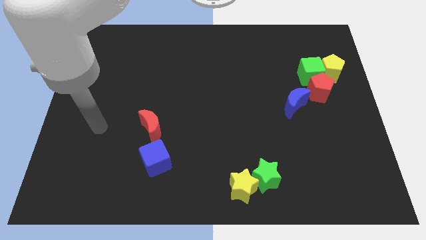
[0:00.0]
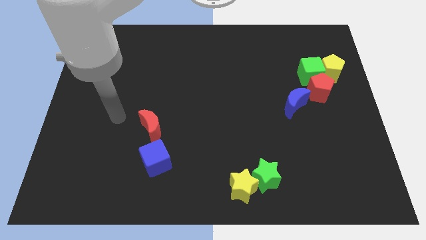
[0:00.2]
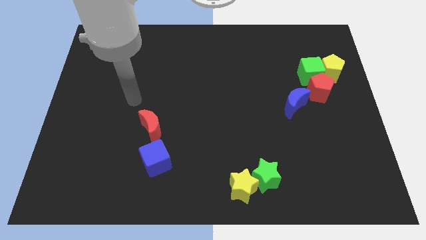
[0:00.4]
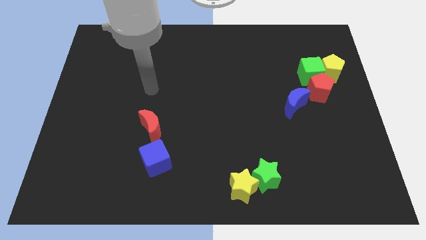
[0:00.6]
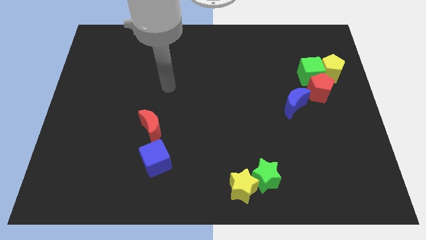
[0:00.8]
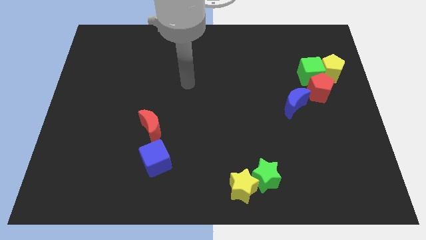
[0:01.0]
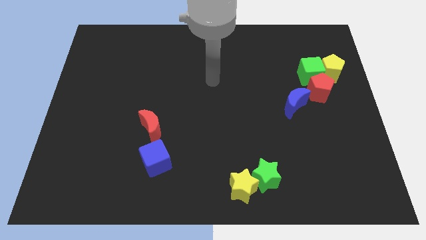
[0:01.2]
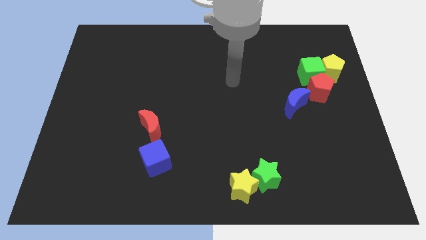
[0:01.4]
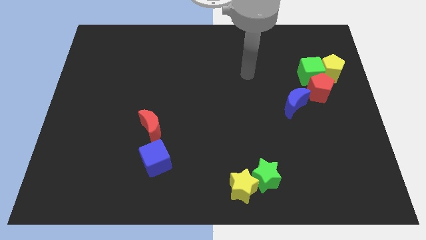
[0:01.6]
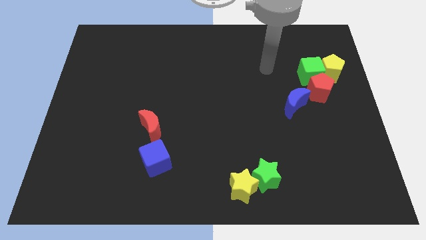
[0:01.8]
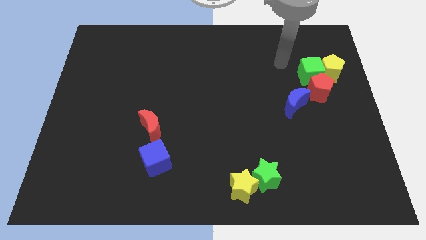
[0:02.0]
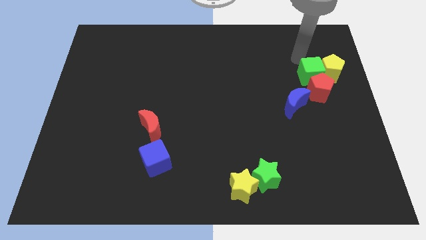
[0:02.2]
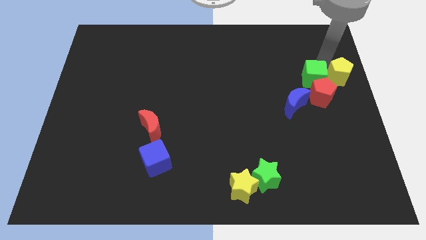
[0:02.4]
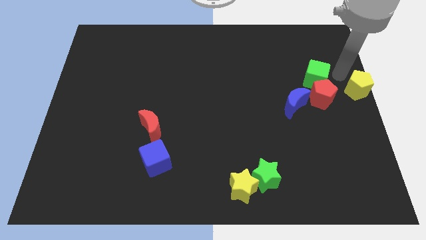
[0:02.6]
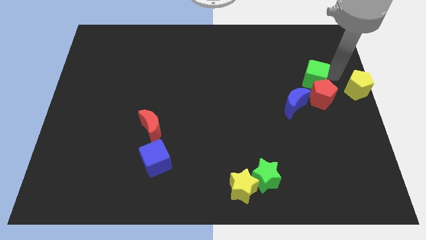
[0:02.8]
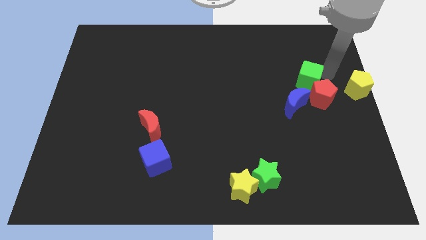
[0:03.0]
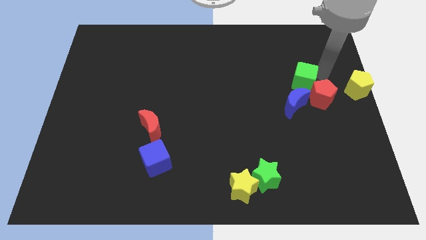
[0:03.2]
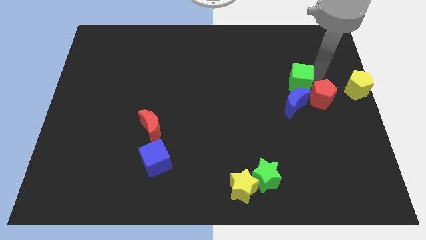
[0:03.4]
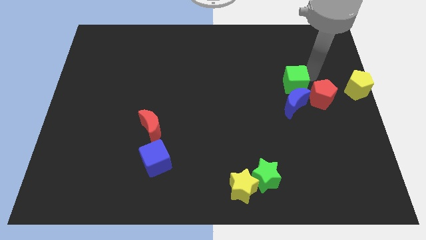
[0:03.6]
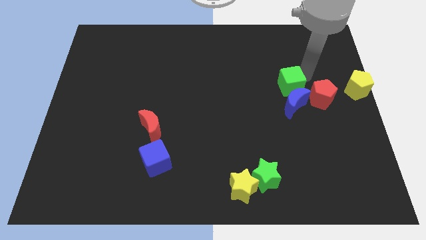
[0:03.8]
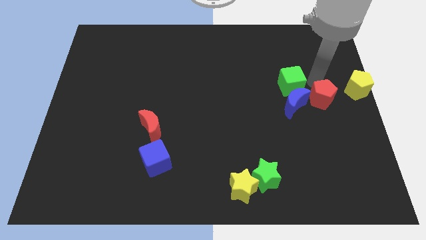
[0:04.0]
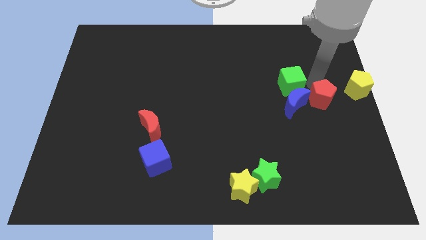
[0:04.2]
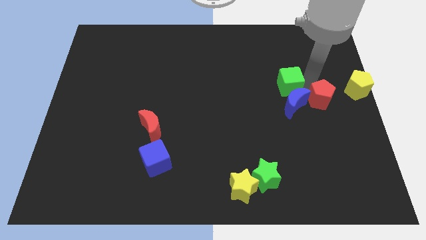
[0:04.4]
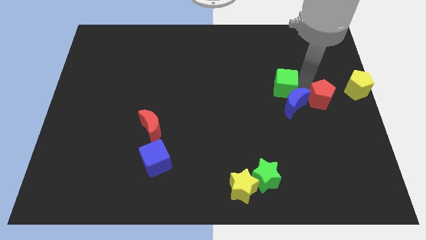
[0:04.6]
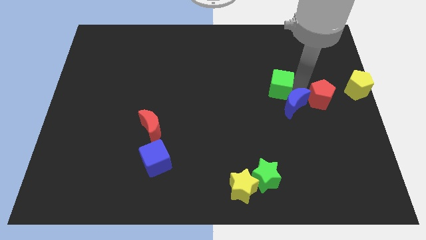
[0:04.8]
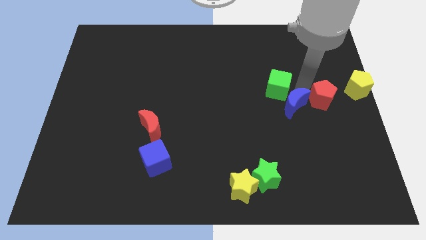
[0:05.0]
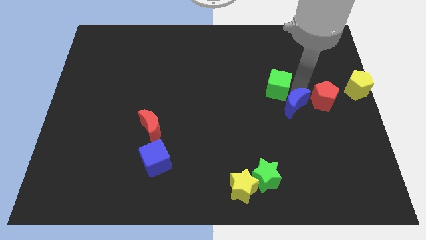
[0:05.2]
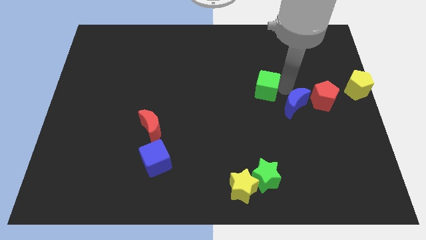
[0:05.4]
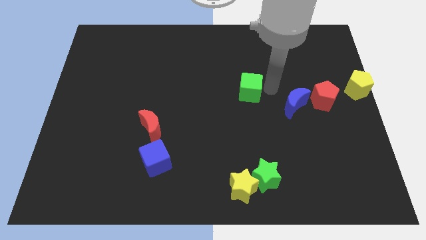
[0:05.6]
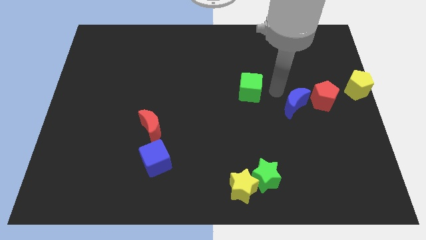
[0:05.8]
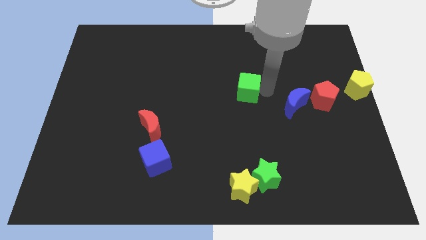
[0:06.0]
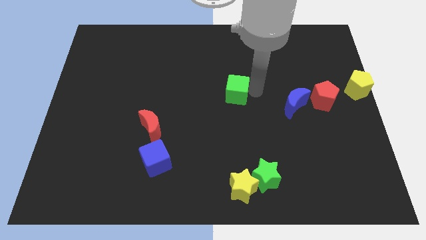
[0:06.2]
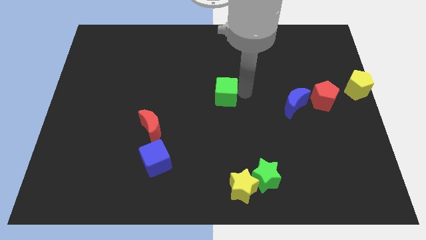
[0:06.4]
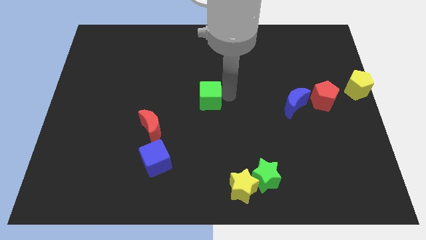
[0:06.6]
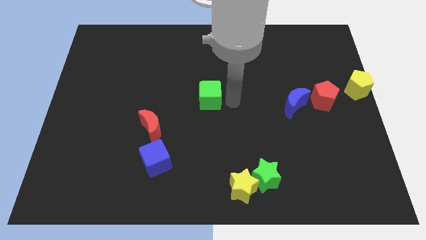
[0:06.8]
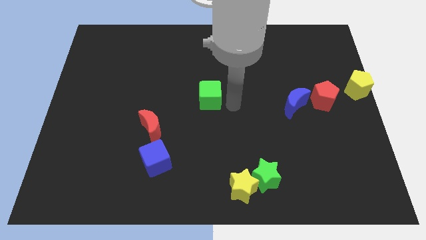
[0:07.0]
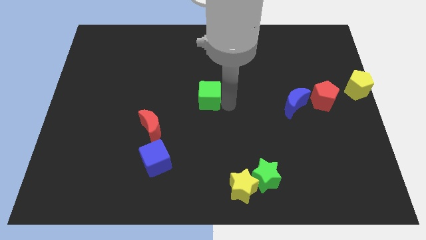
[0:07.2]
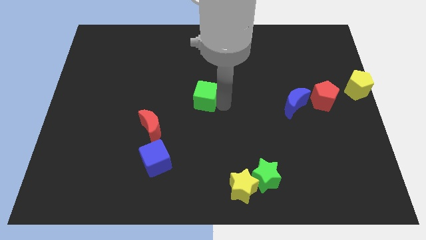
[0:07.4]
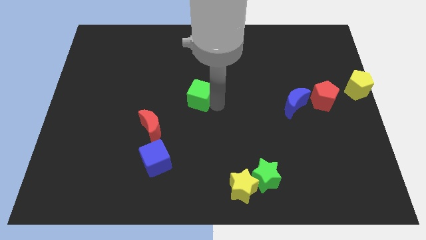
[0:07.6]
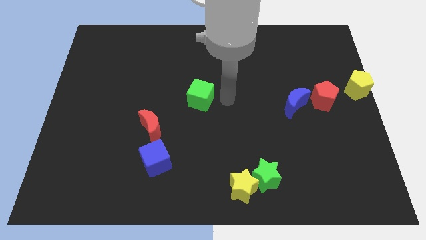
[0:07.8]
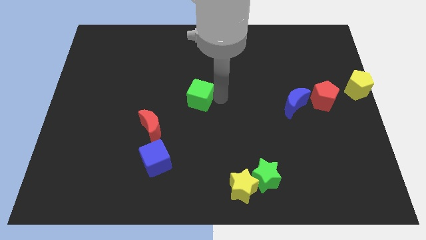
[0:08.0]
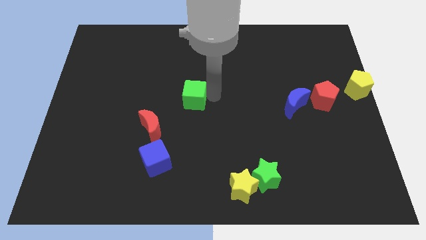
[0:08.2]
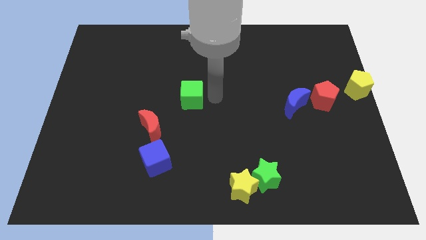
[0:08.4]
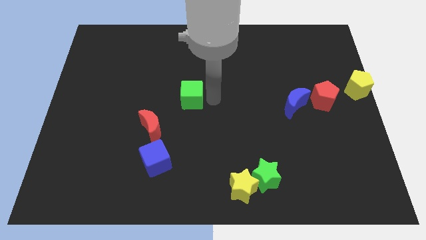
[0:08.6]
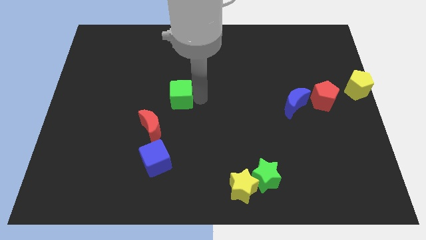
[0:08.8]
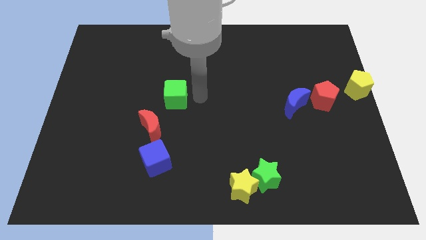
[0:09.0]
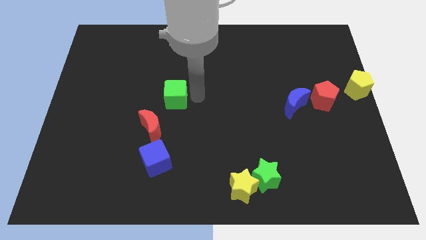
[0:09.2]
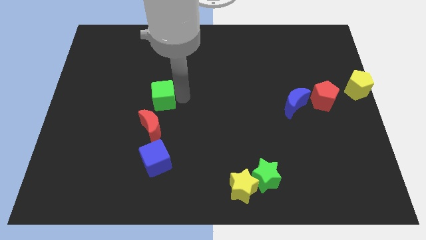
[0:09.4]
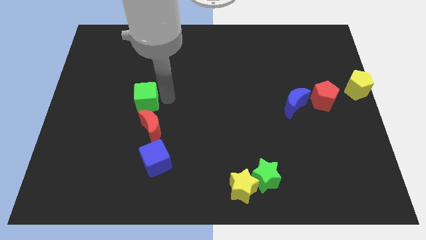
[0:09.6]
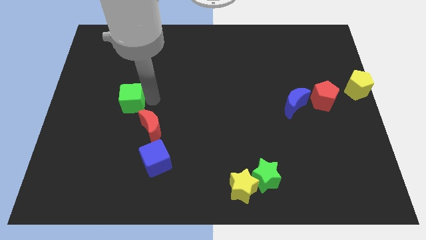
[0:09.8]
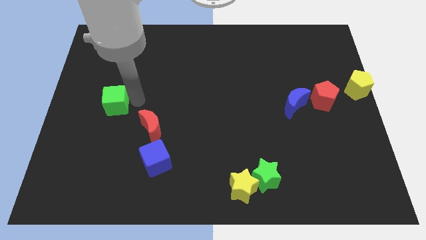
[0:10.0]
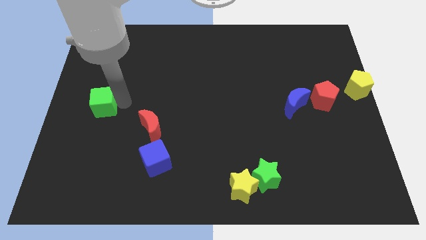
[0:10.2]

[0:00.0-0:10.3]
put the green cube to the center left

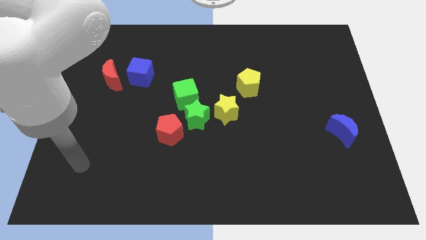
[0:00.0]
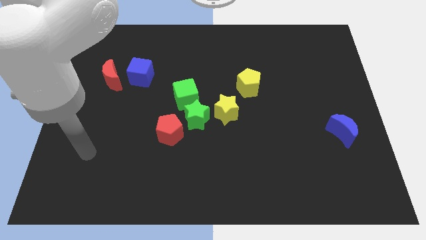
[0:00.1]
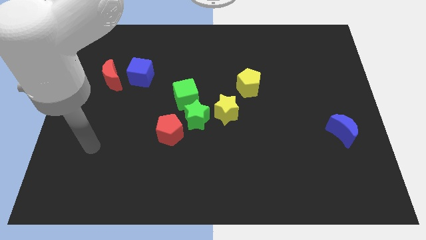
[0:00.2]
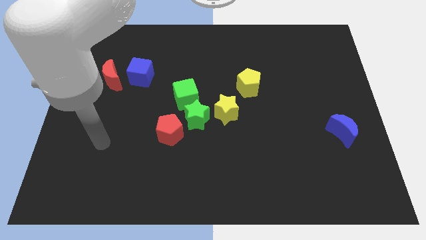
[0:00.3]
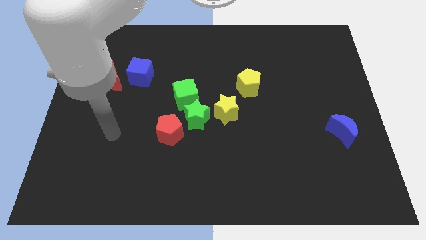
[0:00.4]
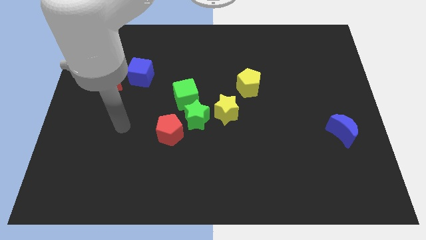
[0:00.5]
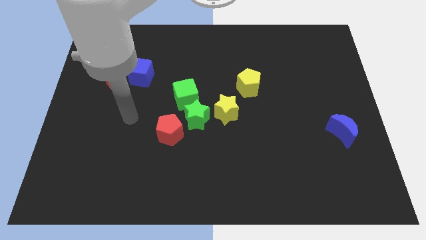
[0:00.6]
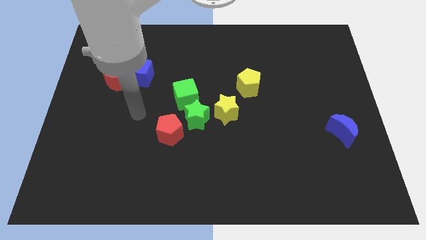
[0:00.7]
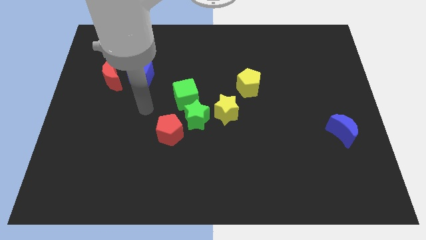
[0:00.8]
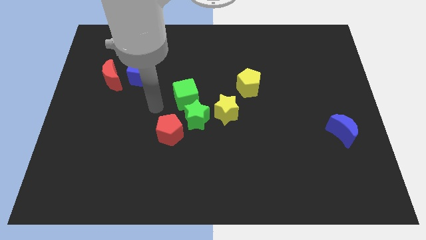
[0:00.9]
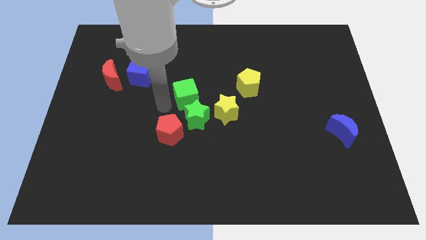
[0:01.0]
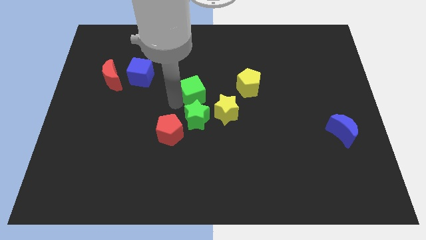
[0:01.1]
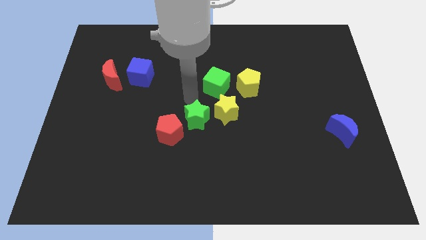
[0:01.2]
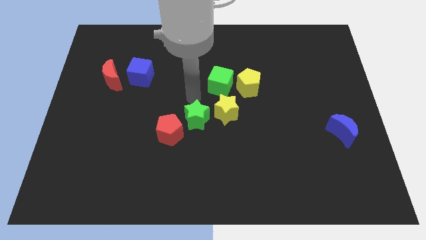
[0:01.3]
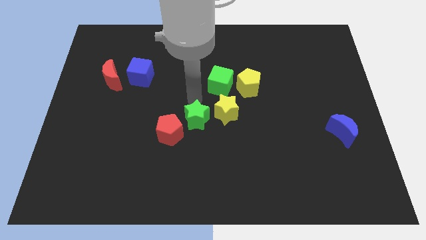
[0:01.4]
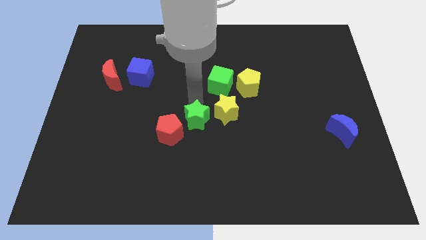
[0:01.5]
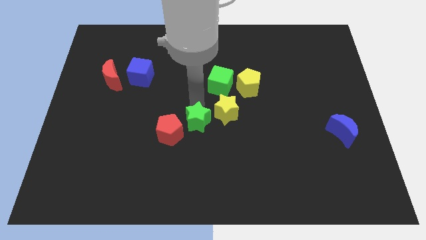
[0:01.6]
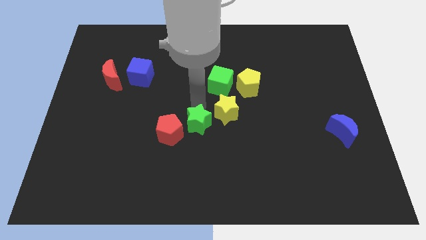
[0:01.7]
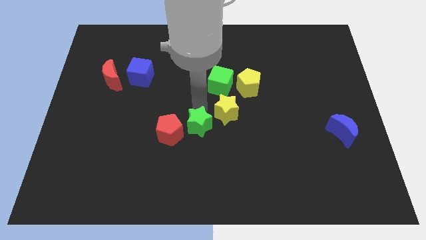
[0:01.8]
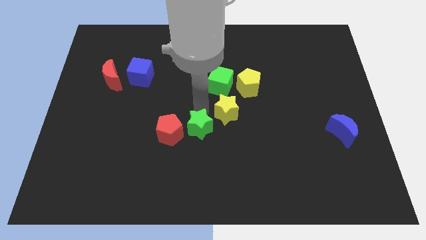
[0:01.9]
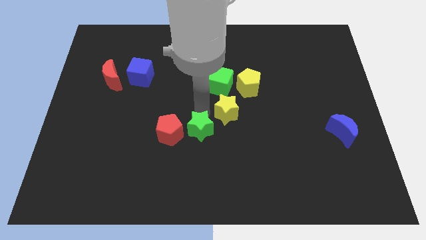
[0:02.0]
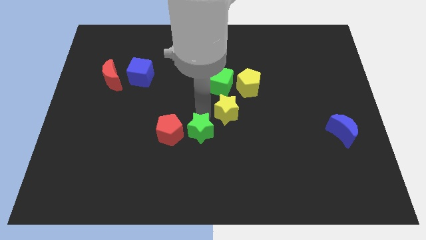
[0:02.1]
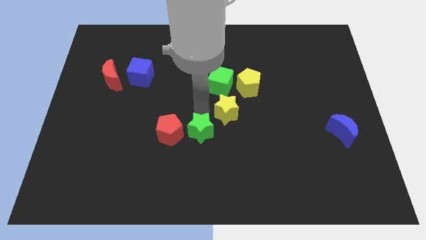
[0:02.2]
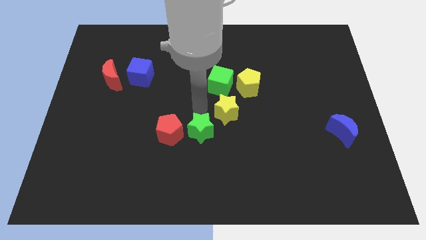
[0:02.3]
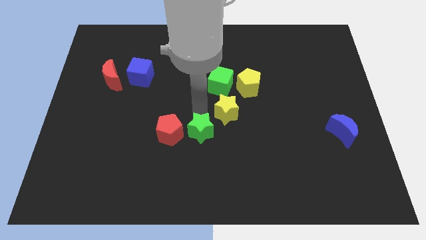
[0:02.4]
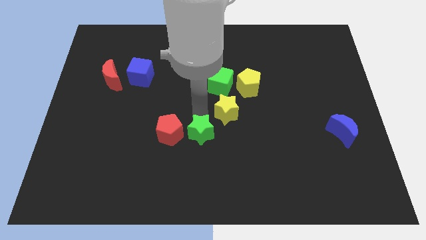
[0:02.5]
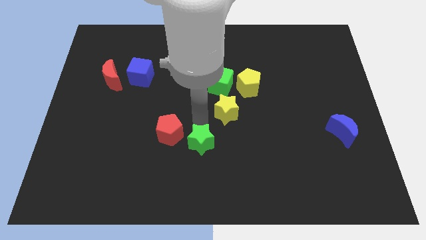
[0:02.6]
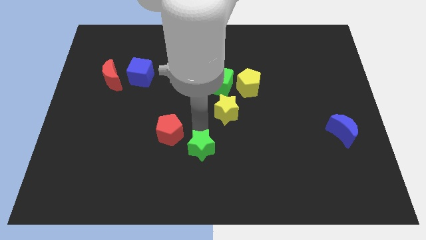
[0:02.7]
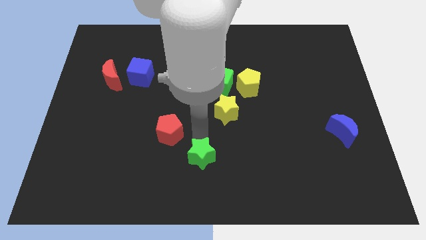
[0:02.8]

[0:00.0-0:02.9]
move the green star to the bottom side

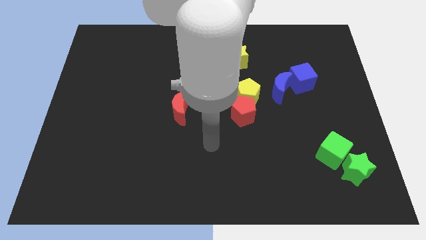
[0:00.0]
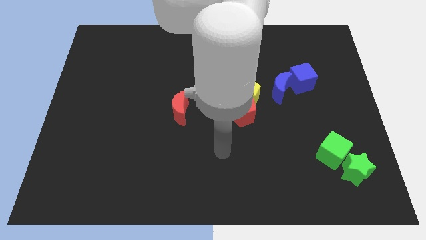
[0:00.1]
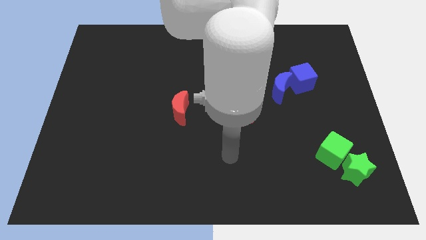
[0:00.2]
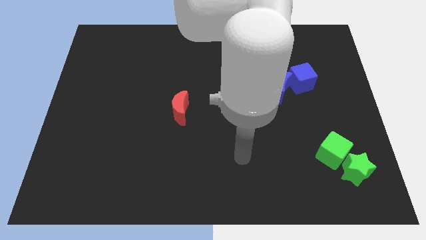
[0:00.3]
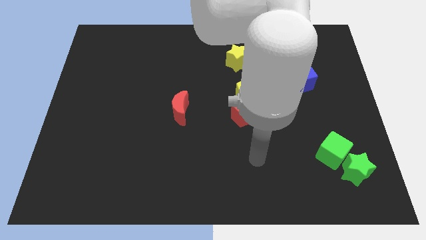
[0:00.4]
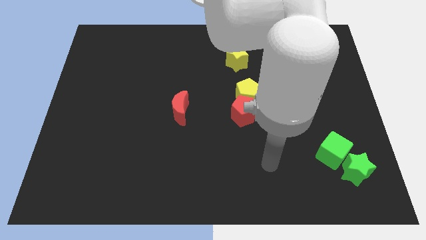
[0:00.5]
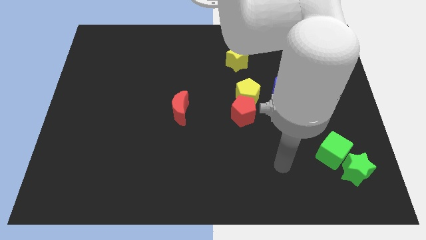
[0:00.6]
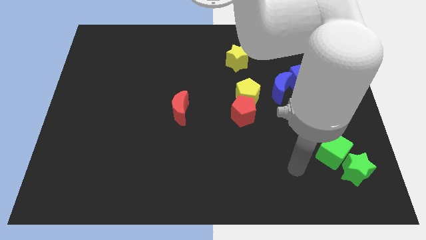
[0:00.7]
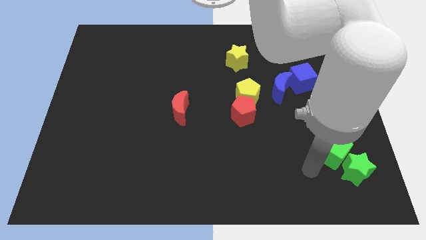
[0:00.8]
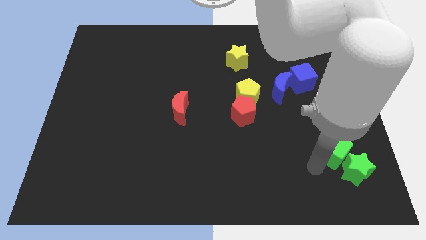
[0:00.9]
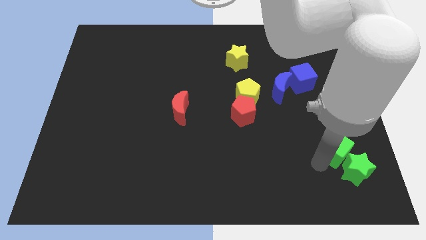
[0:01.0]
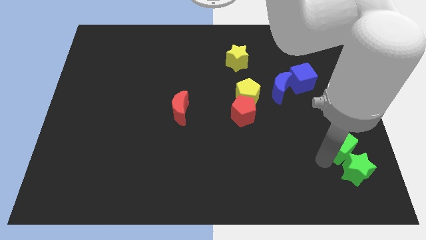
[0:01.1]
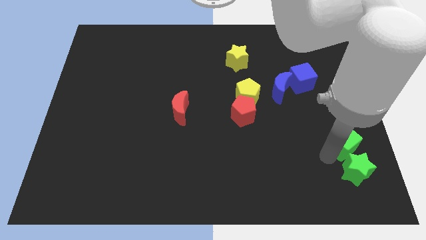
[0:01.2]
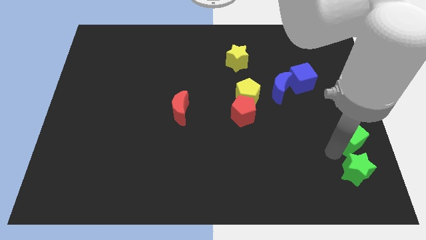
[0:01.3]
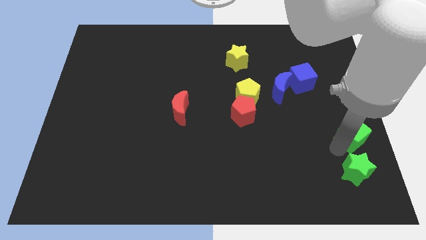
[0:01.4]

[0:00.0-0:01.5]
move the green cube to the center right
